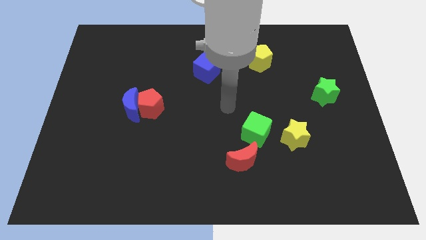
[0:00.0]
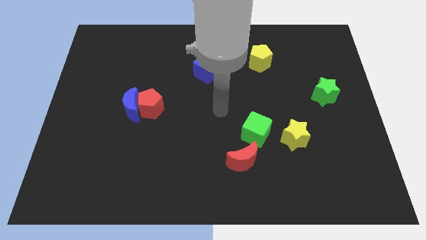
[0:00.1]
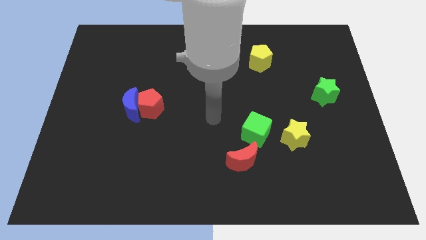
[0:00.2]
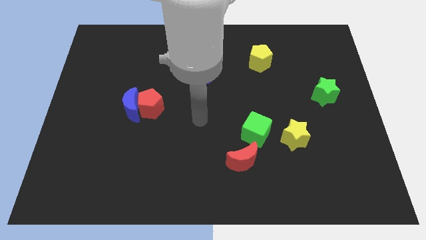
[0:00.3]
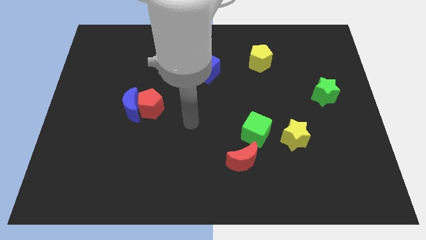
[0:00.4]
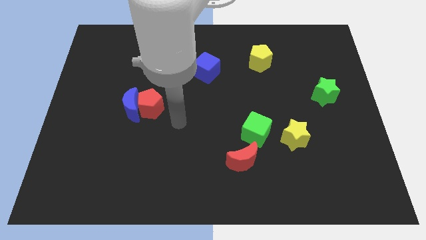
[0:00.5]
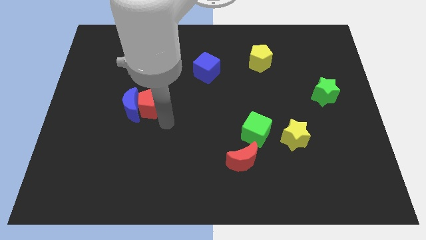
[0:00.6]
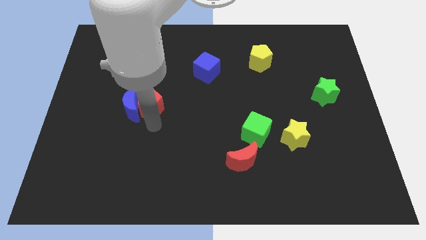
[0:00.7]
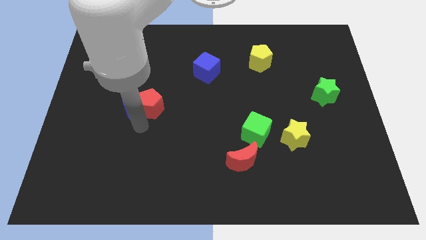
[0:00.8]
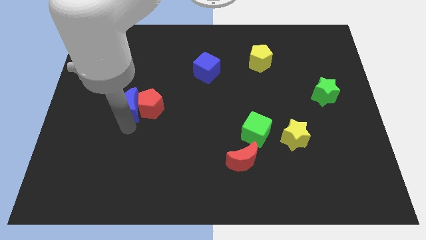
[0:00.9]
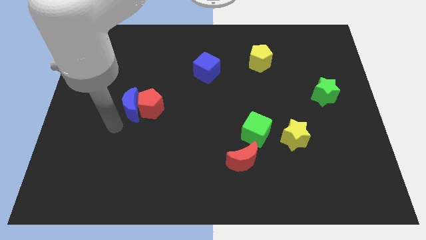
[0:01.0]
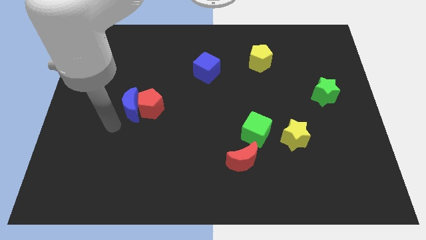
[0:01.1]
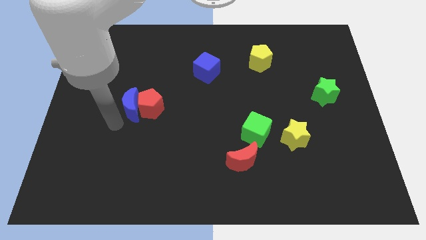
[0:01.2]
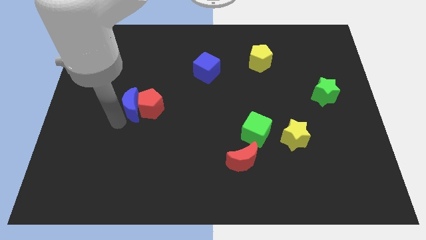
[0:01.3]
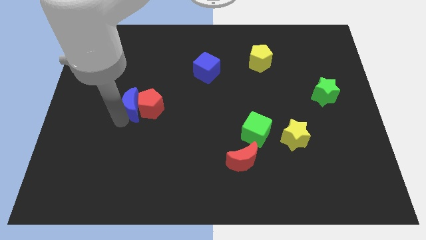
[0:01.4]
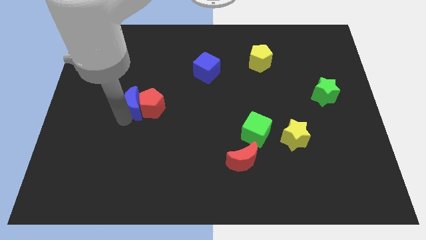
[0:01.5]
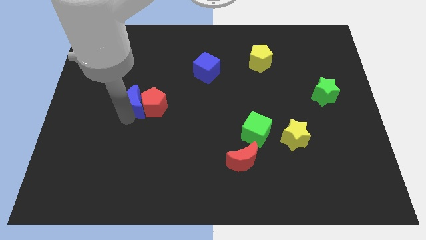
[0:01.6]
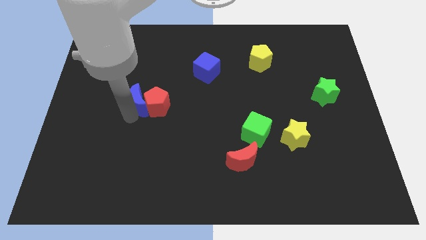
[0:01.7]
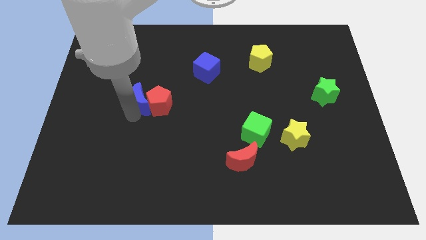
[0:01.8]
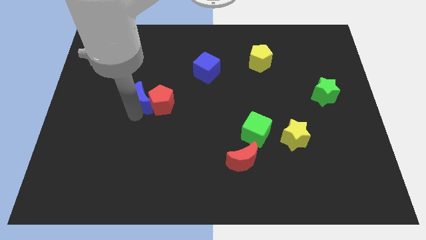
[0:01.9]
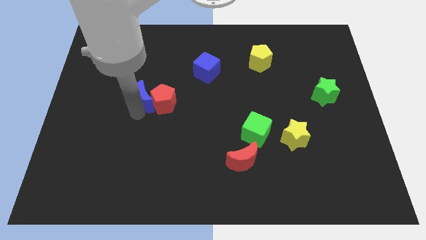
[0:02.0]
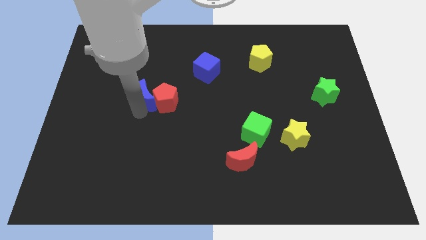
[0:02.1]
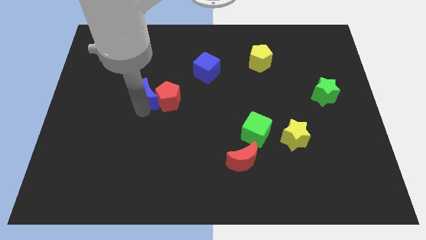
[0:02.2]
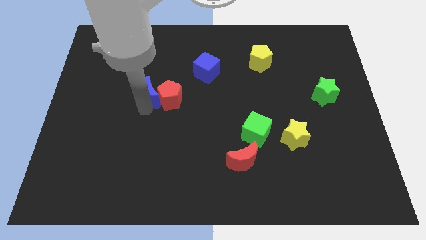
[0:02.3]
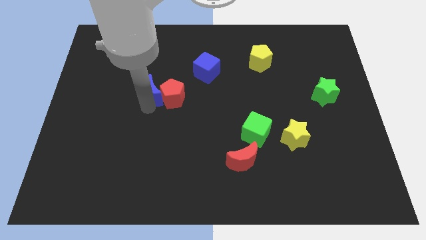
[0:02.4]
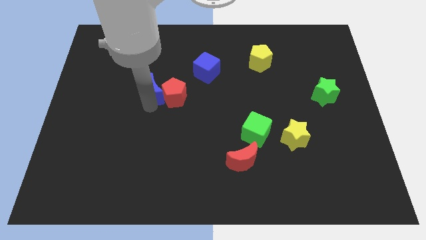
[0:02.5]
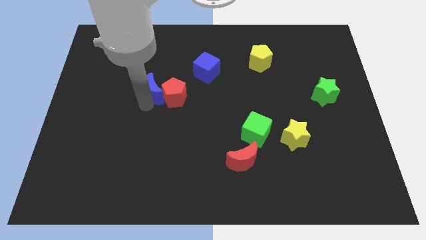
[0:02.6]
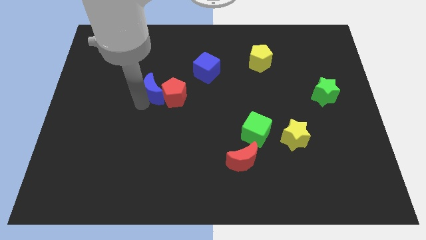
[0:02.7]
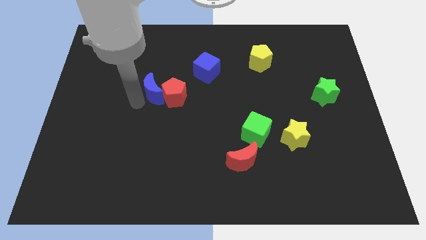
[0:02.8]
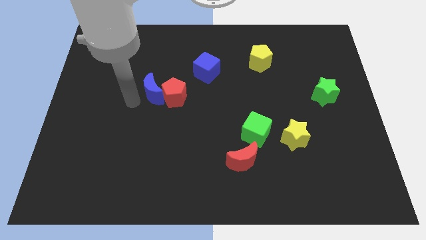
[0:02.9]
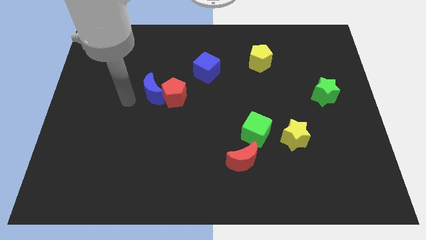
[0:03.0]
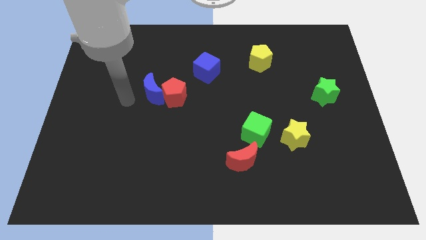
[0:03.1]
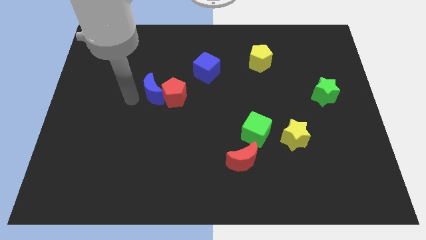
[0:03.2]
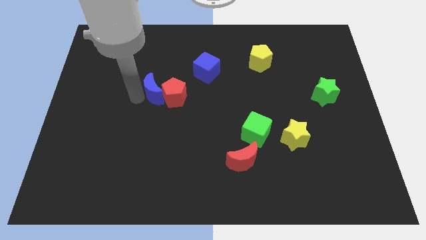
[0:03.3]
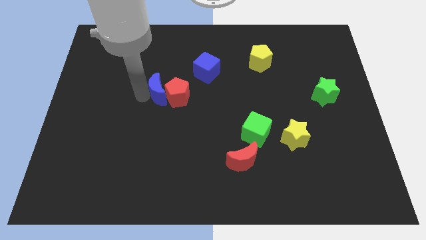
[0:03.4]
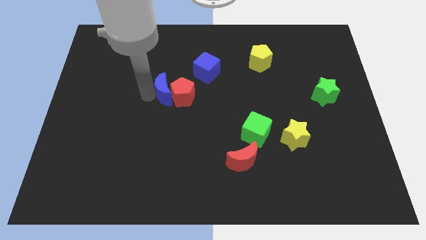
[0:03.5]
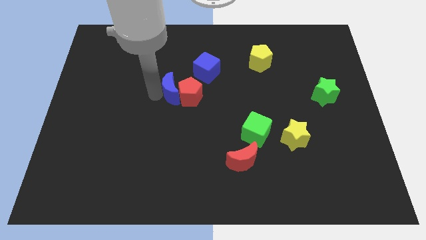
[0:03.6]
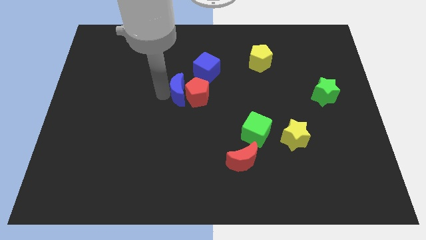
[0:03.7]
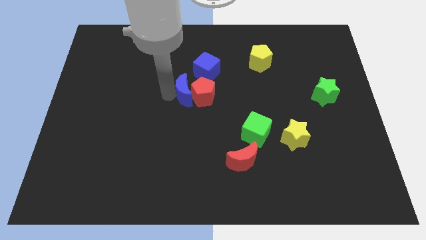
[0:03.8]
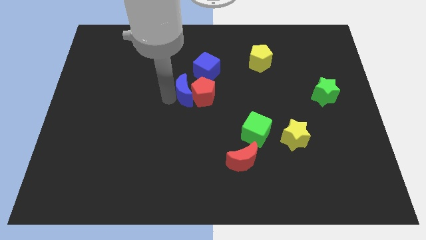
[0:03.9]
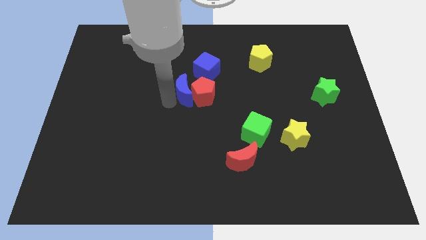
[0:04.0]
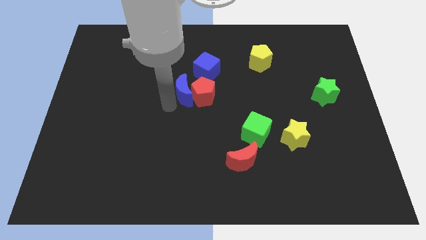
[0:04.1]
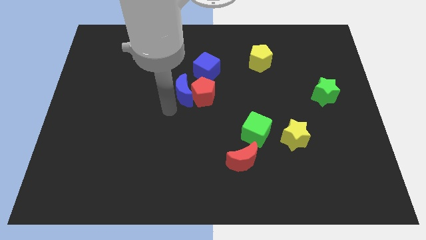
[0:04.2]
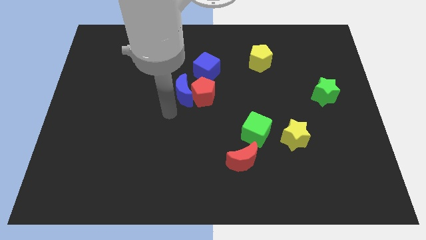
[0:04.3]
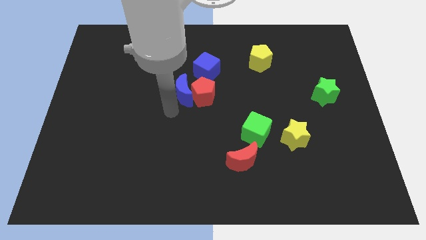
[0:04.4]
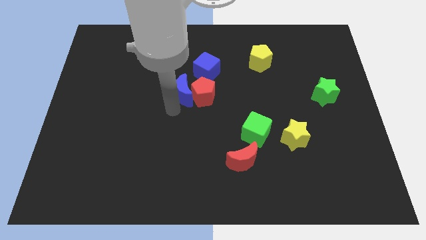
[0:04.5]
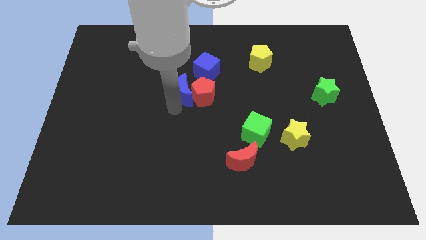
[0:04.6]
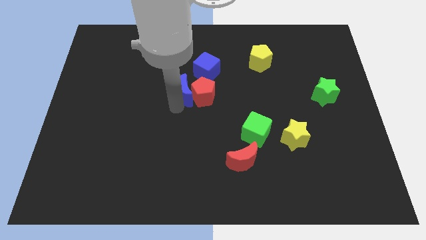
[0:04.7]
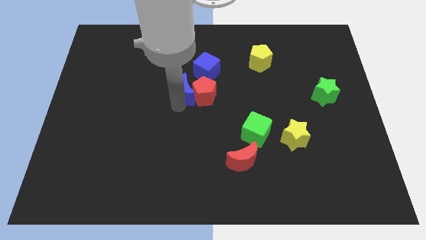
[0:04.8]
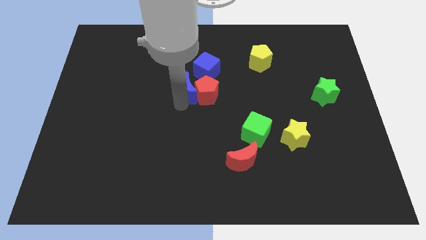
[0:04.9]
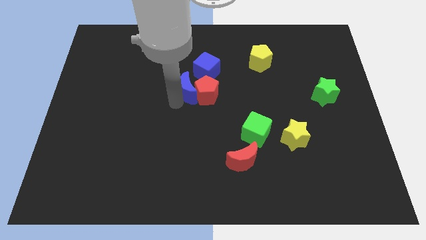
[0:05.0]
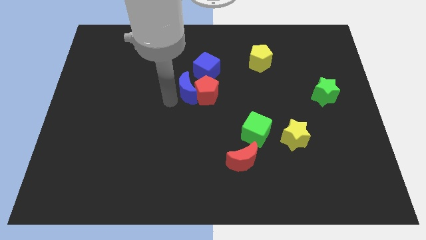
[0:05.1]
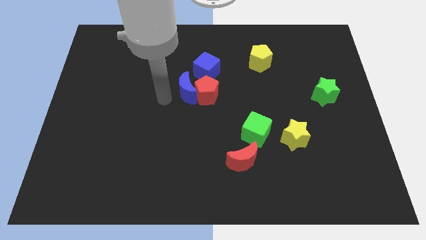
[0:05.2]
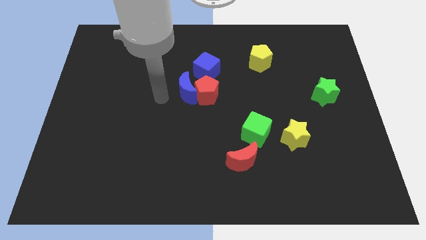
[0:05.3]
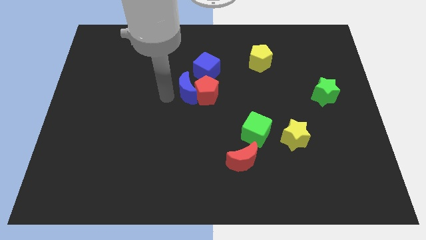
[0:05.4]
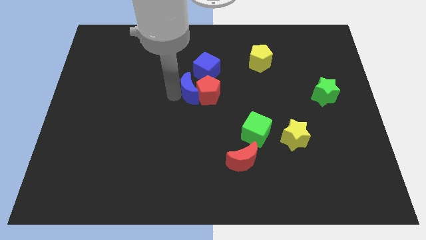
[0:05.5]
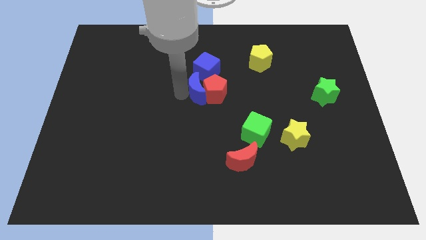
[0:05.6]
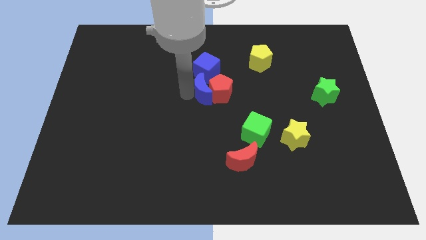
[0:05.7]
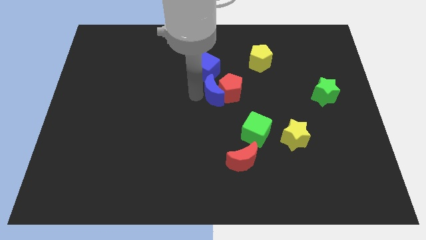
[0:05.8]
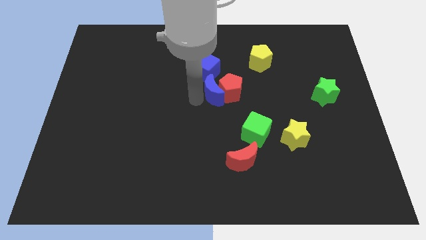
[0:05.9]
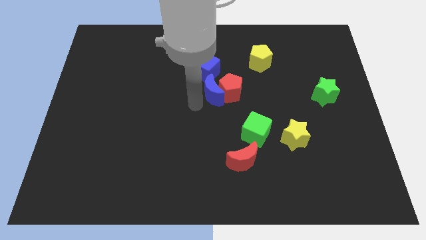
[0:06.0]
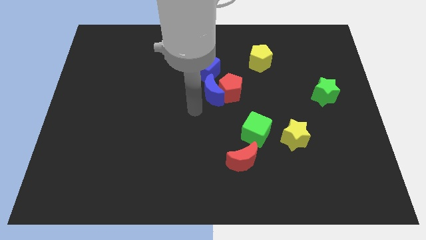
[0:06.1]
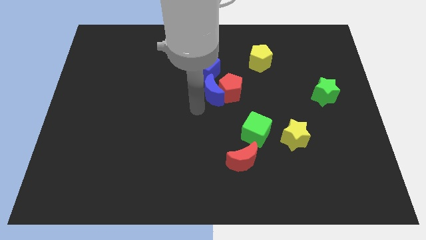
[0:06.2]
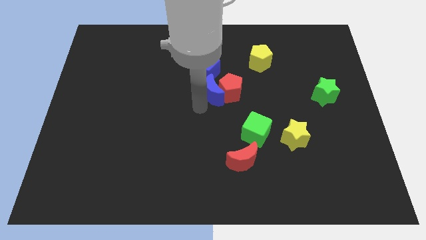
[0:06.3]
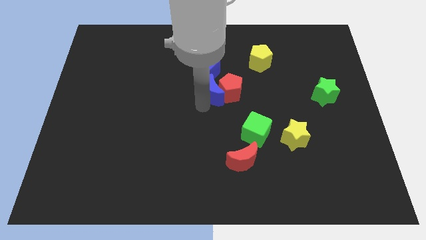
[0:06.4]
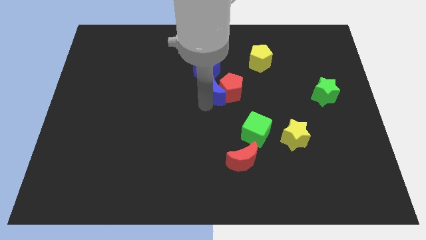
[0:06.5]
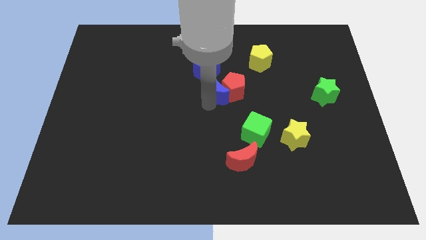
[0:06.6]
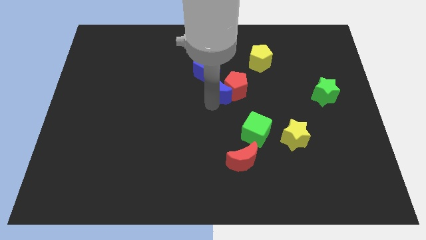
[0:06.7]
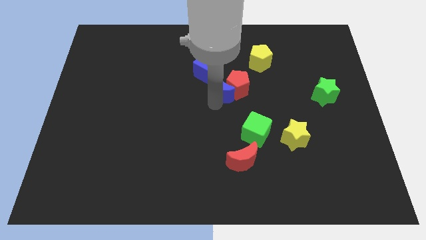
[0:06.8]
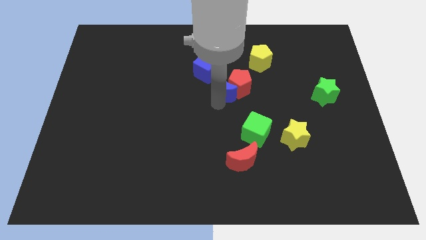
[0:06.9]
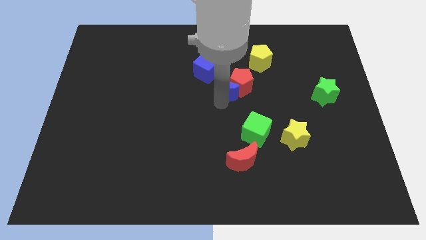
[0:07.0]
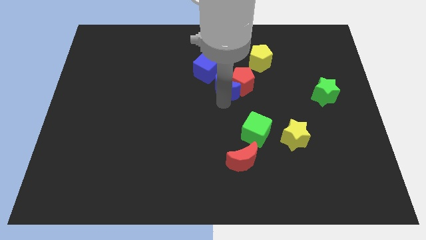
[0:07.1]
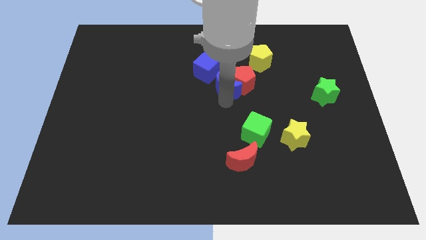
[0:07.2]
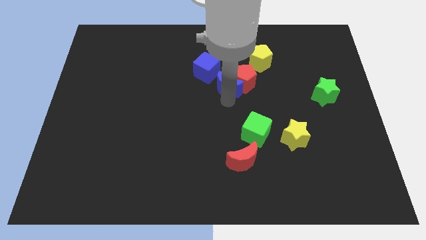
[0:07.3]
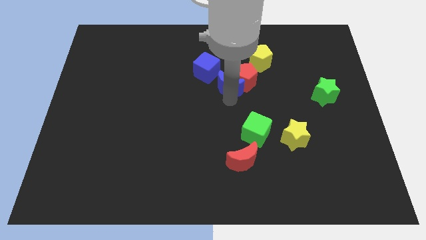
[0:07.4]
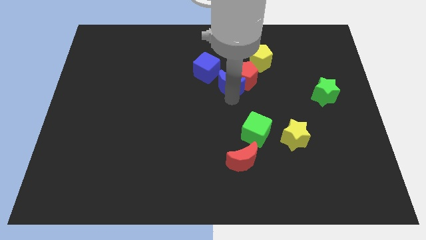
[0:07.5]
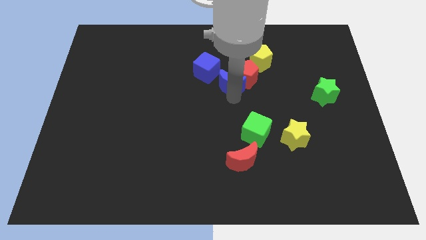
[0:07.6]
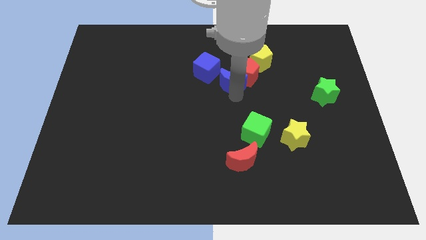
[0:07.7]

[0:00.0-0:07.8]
push the blue moon to the right side of the blue cube
